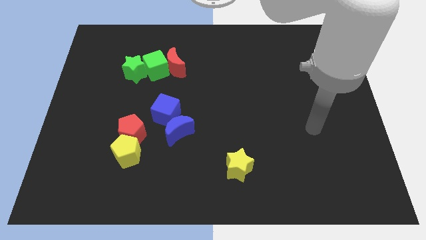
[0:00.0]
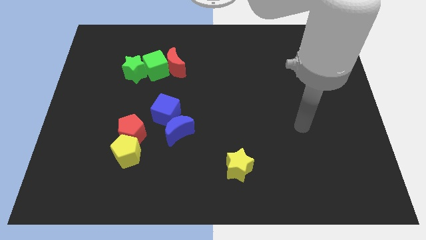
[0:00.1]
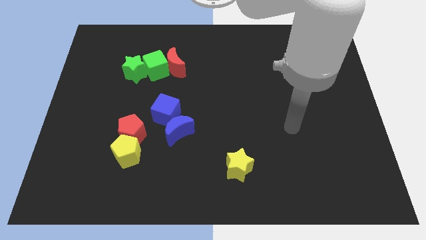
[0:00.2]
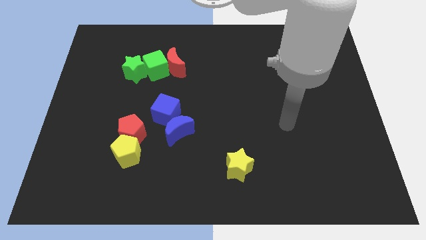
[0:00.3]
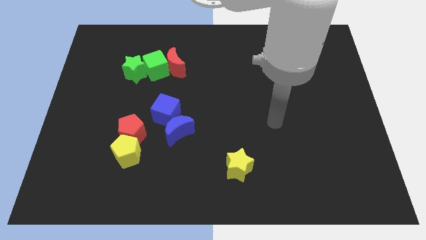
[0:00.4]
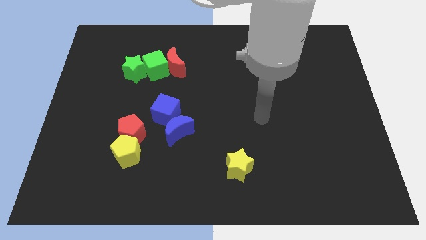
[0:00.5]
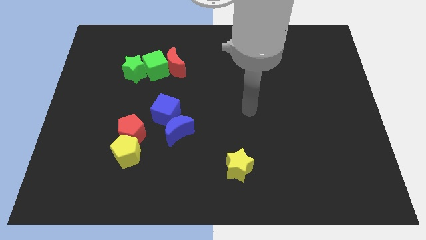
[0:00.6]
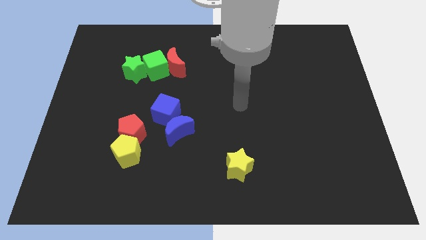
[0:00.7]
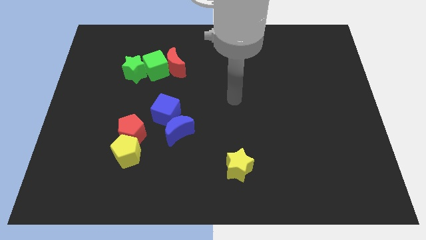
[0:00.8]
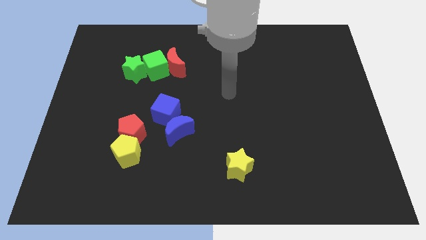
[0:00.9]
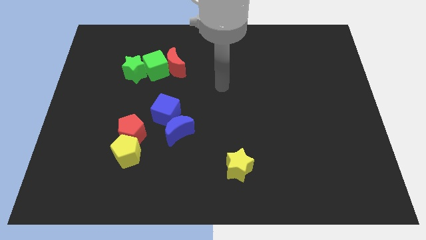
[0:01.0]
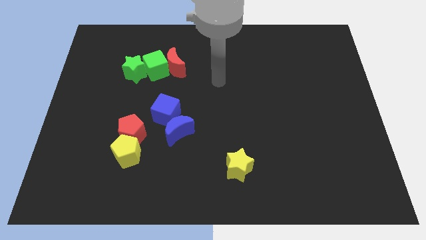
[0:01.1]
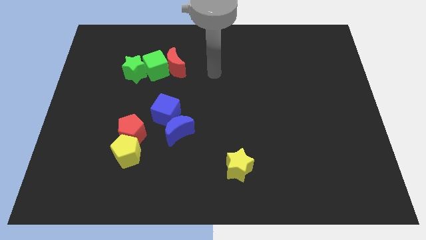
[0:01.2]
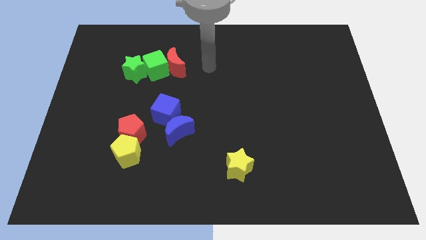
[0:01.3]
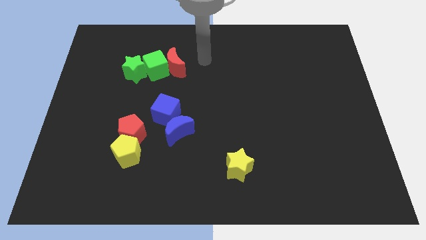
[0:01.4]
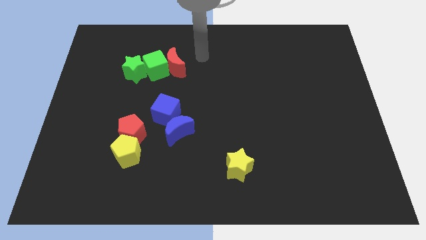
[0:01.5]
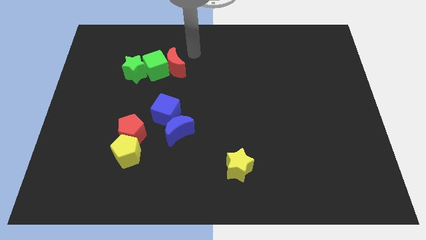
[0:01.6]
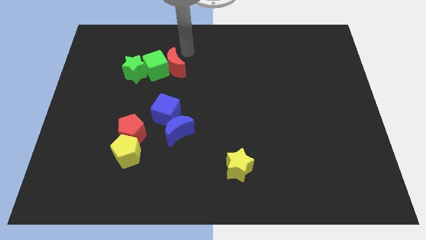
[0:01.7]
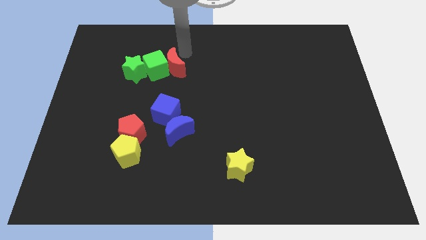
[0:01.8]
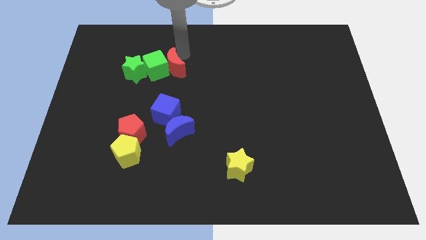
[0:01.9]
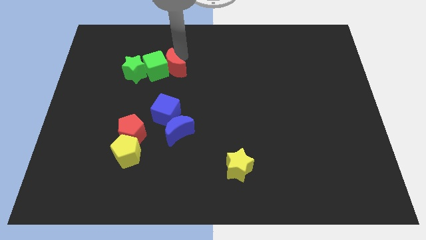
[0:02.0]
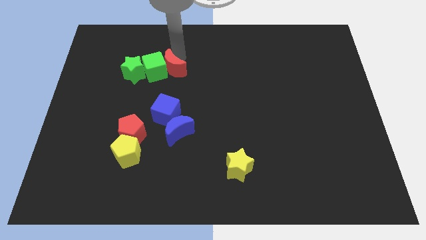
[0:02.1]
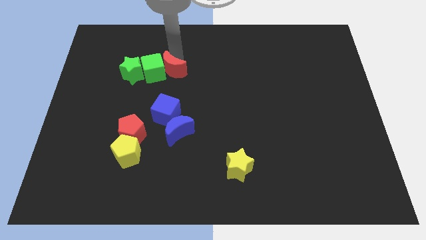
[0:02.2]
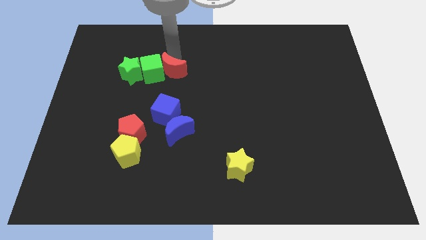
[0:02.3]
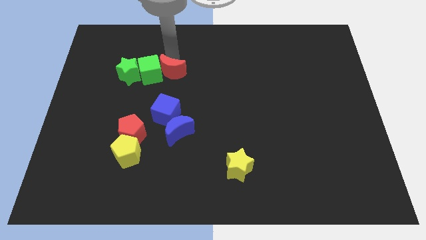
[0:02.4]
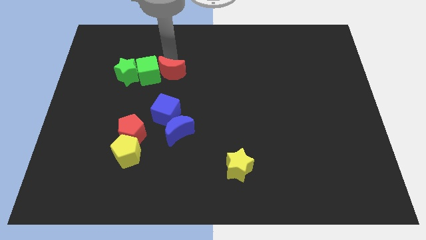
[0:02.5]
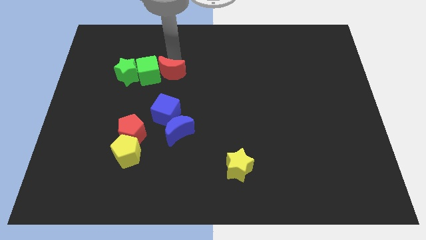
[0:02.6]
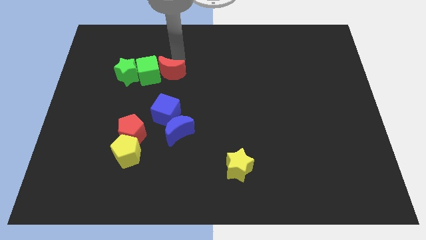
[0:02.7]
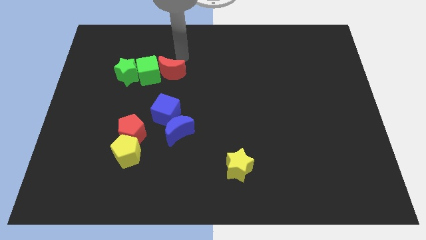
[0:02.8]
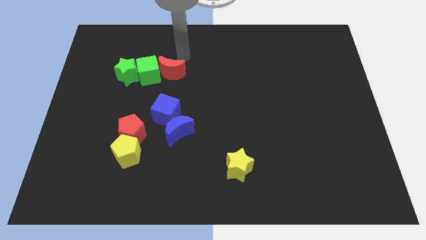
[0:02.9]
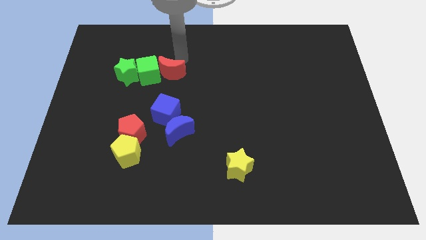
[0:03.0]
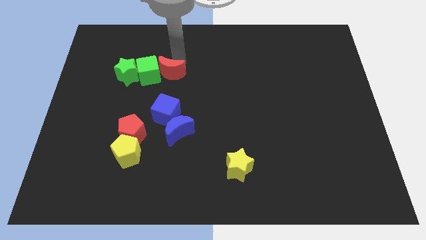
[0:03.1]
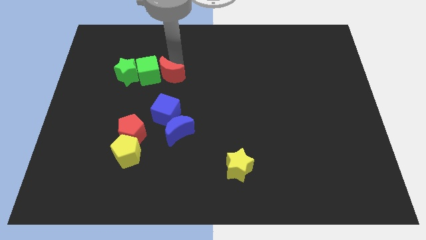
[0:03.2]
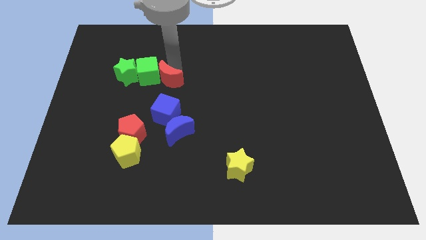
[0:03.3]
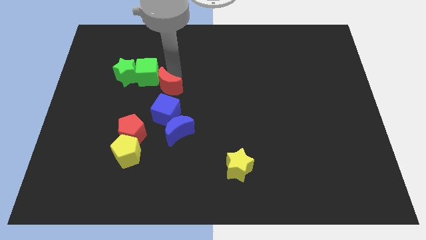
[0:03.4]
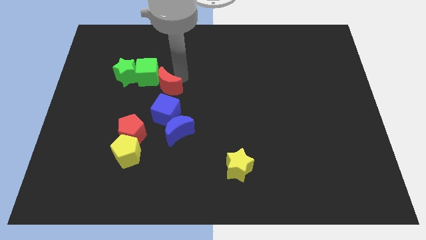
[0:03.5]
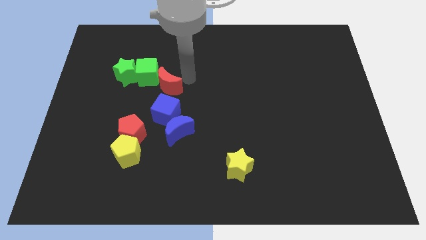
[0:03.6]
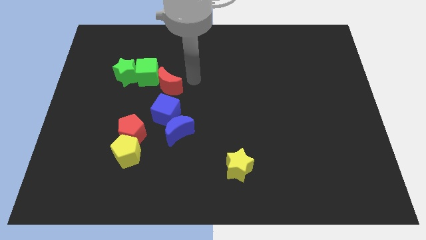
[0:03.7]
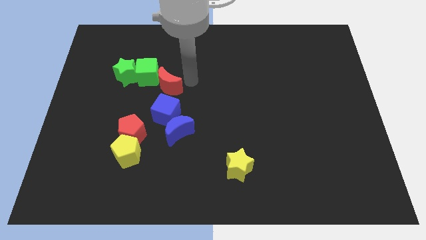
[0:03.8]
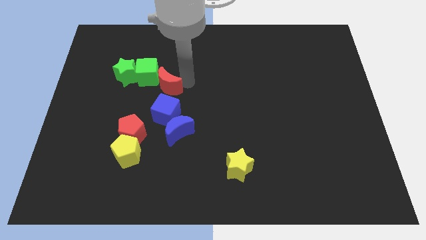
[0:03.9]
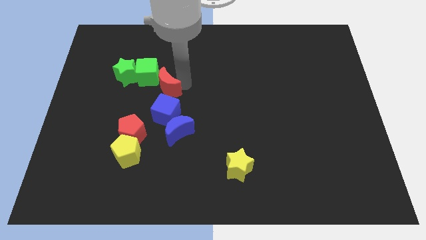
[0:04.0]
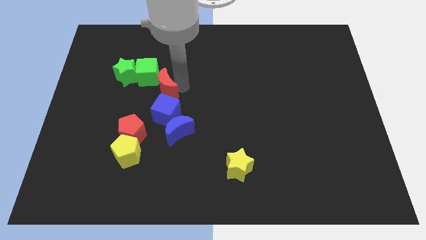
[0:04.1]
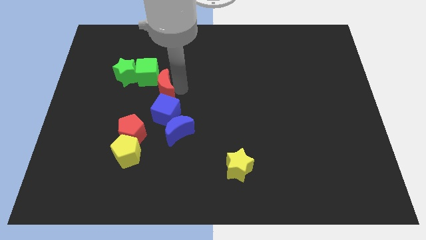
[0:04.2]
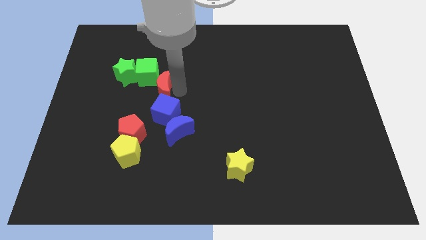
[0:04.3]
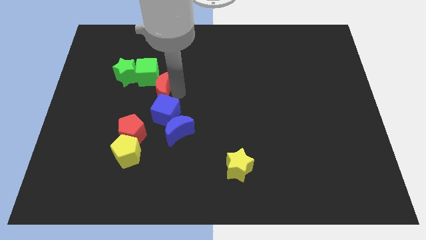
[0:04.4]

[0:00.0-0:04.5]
move the red moon downwards and to the left somewhat

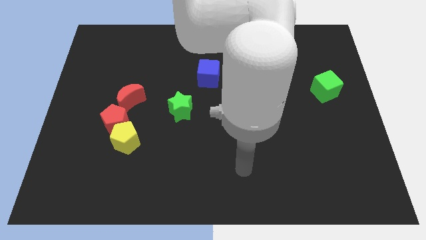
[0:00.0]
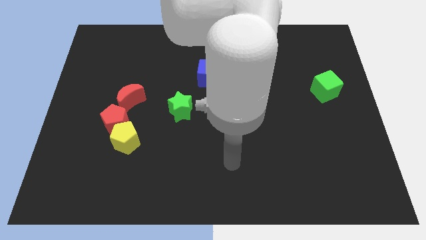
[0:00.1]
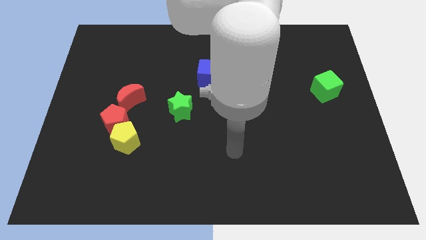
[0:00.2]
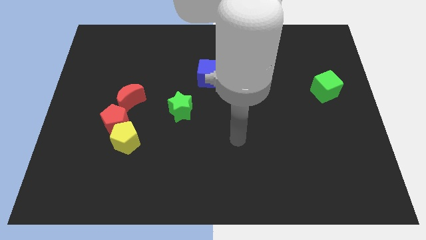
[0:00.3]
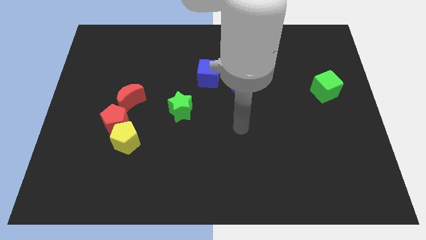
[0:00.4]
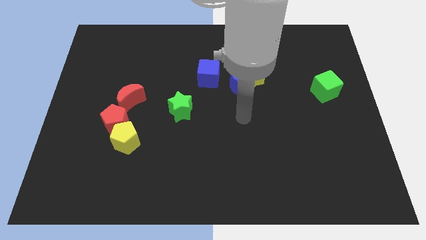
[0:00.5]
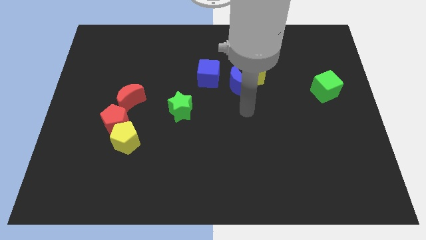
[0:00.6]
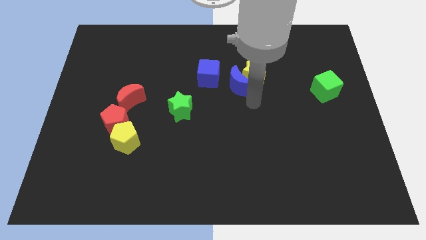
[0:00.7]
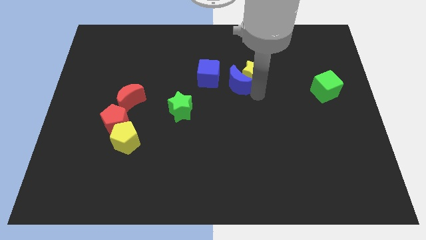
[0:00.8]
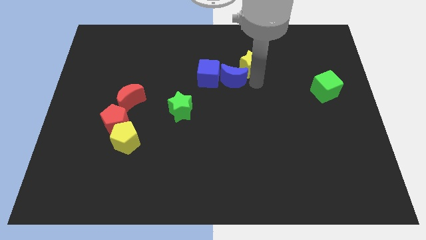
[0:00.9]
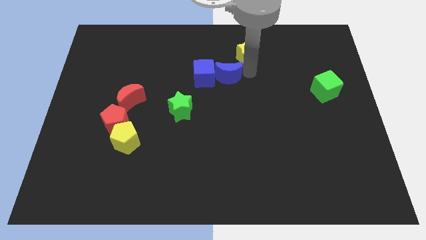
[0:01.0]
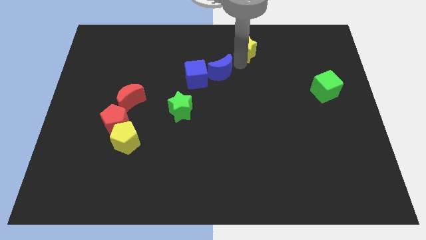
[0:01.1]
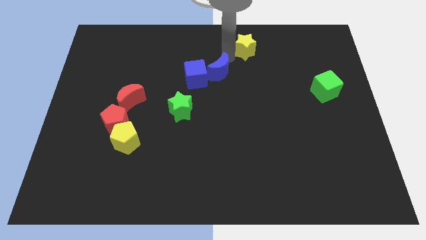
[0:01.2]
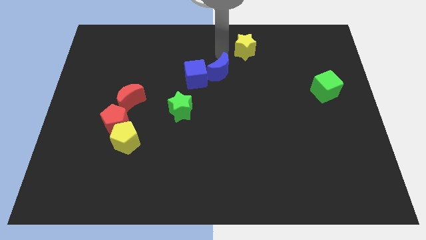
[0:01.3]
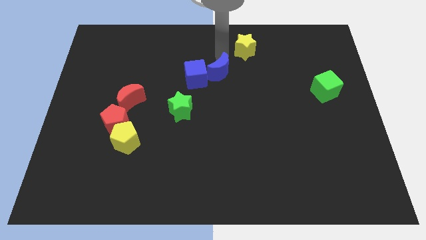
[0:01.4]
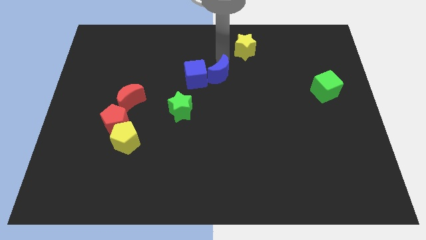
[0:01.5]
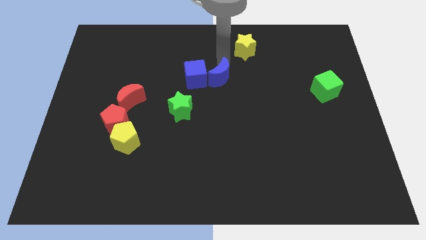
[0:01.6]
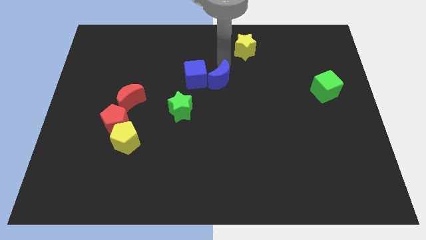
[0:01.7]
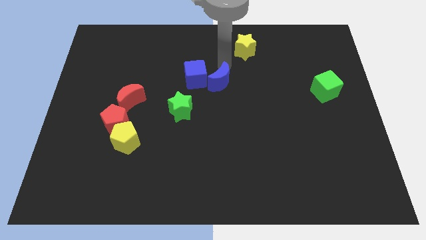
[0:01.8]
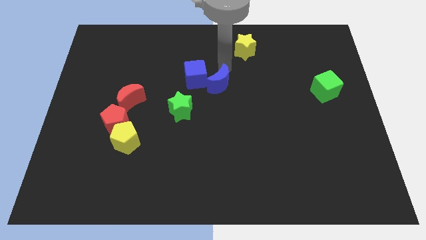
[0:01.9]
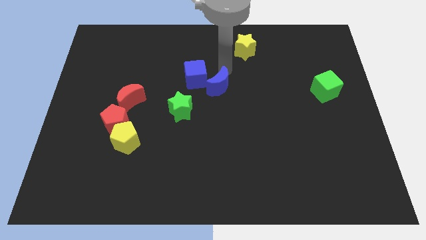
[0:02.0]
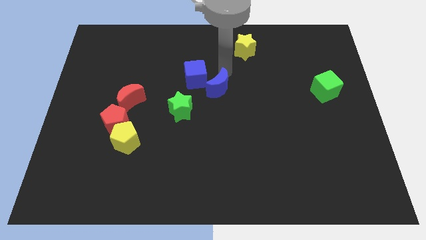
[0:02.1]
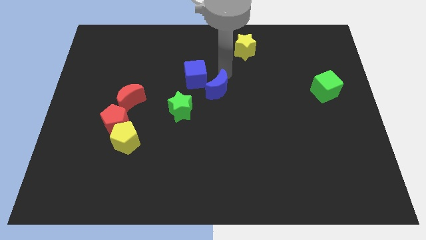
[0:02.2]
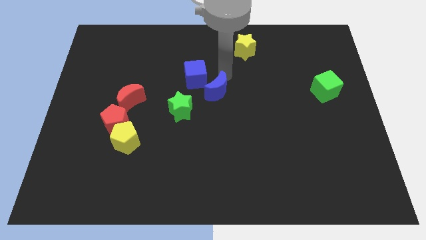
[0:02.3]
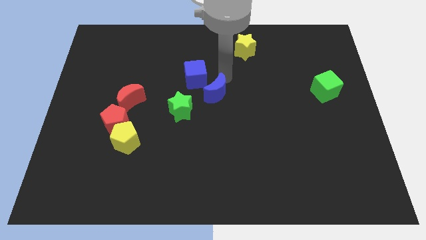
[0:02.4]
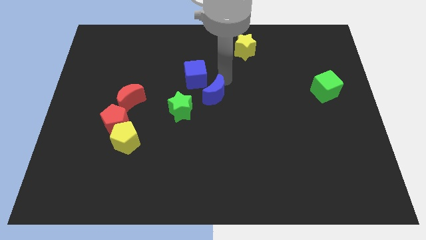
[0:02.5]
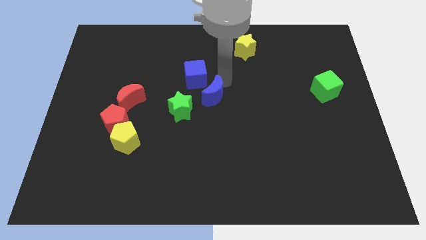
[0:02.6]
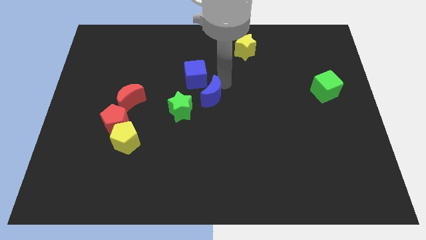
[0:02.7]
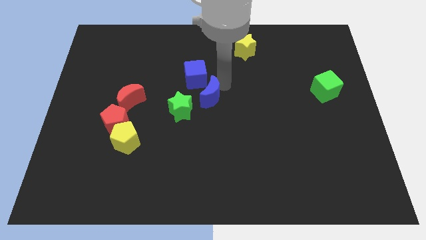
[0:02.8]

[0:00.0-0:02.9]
push the blue moon downwards and to the left diagonally a bit

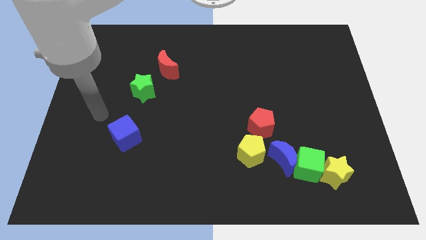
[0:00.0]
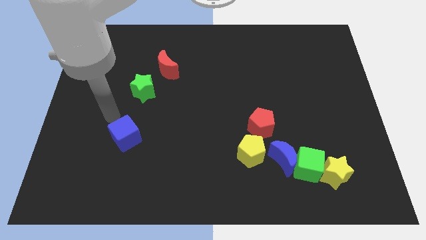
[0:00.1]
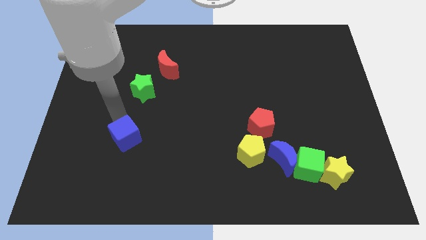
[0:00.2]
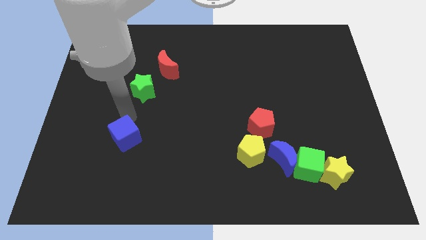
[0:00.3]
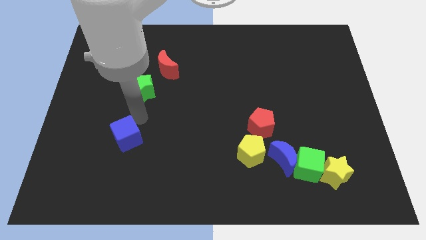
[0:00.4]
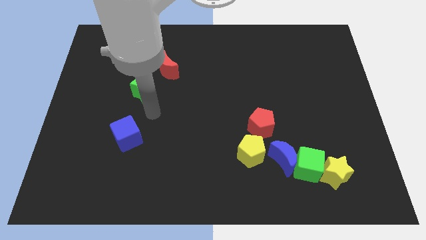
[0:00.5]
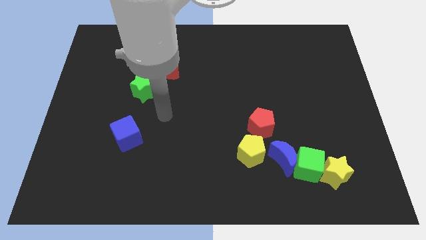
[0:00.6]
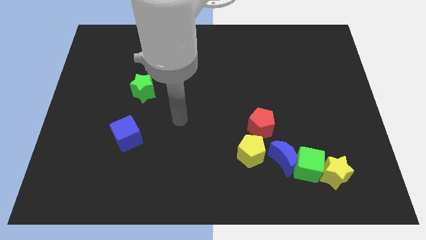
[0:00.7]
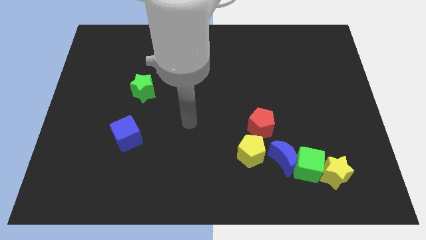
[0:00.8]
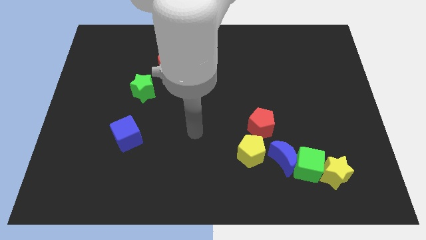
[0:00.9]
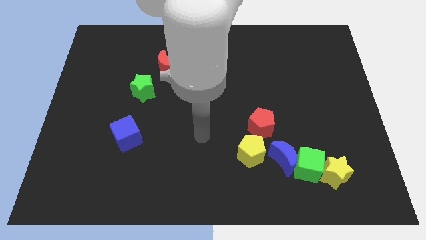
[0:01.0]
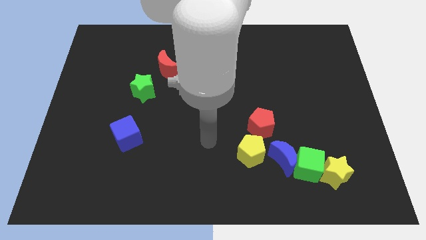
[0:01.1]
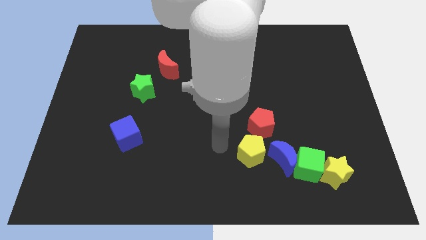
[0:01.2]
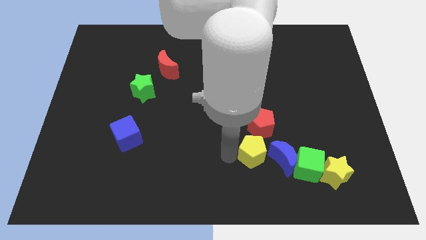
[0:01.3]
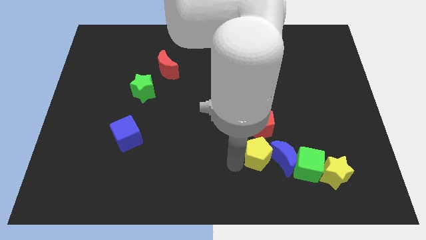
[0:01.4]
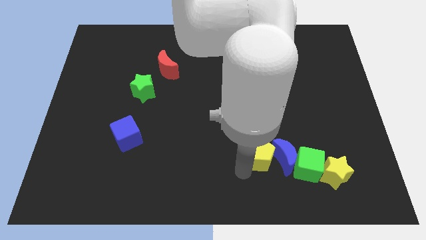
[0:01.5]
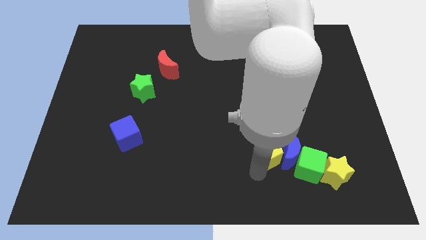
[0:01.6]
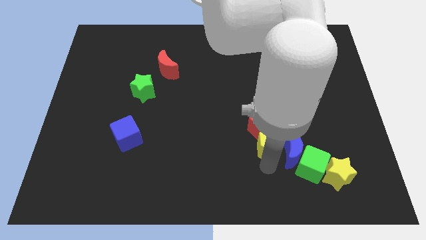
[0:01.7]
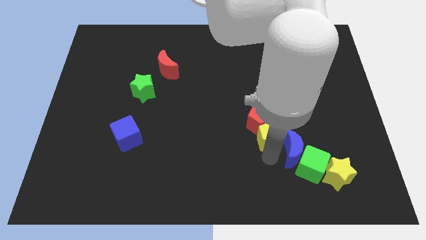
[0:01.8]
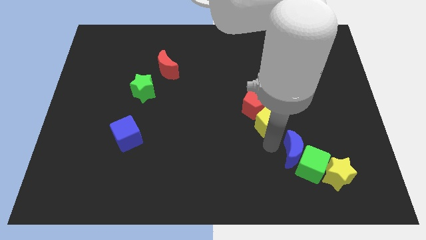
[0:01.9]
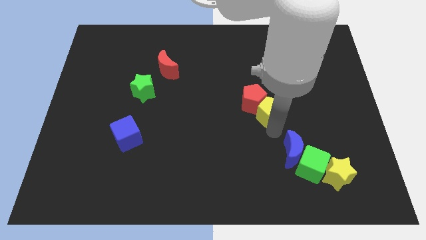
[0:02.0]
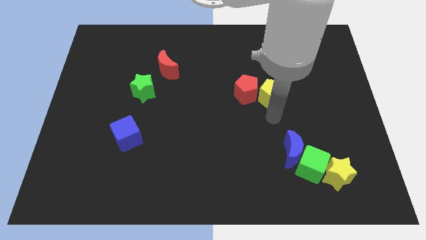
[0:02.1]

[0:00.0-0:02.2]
move the red pentagon upwards and then left a little bit
